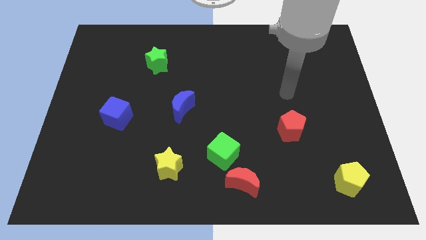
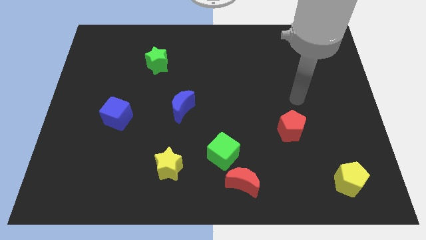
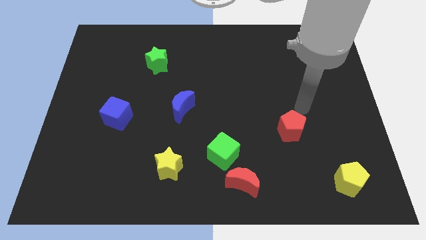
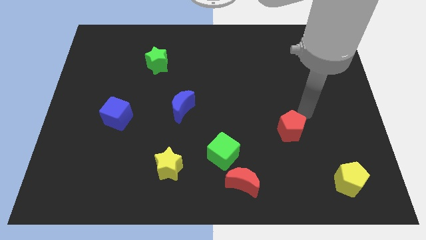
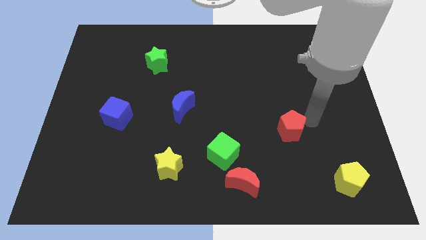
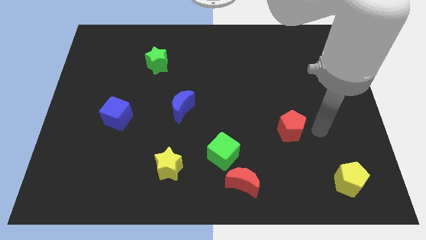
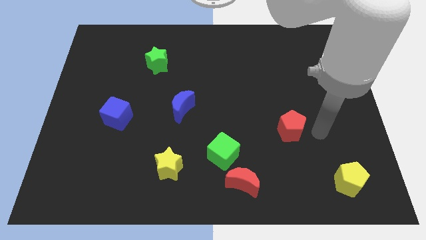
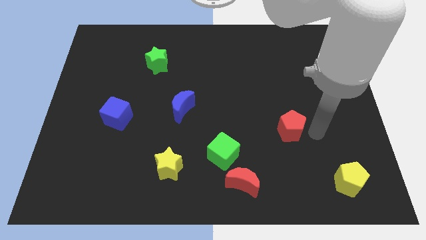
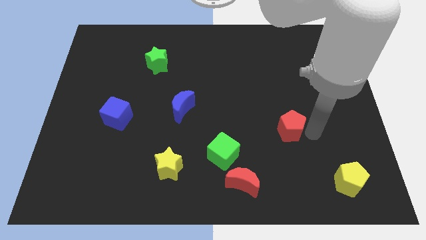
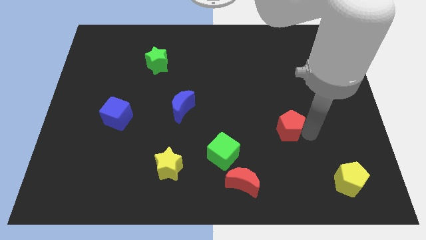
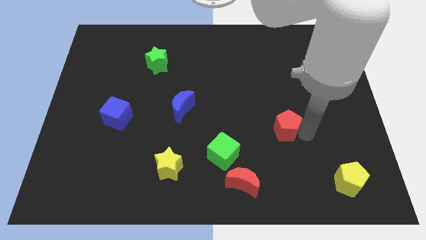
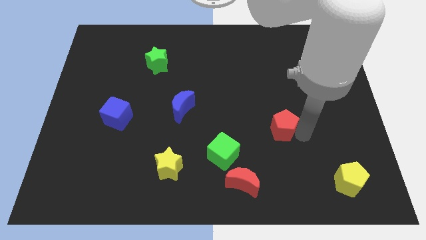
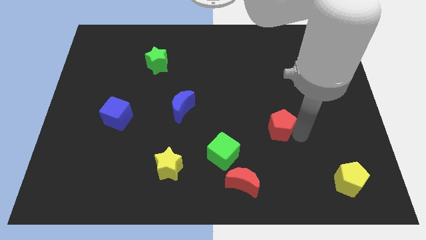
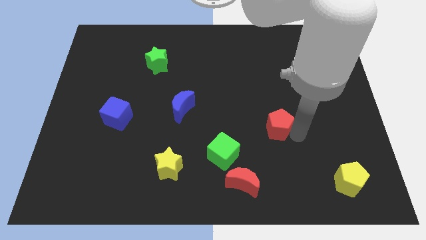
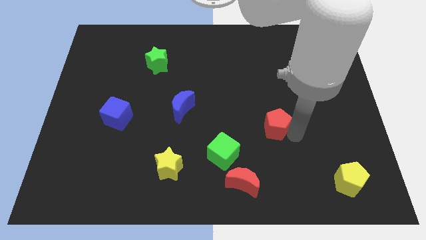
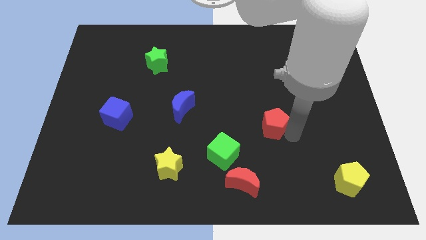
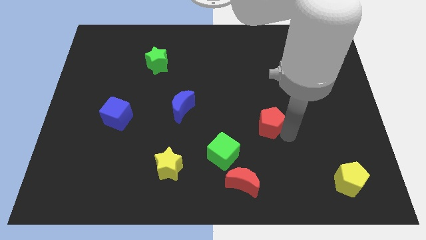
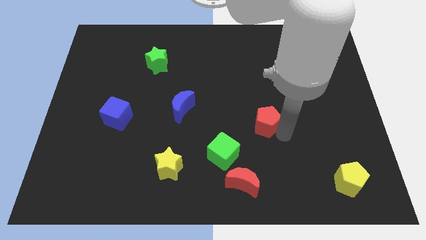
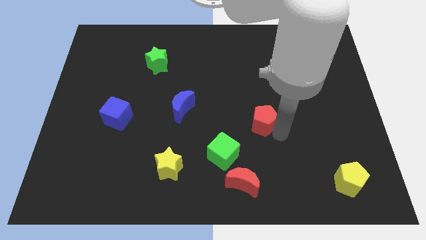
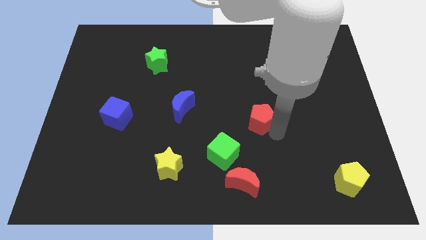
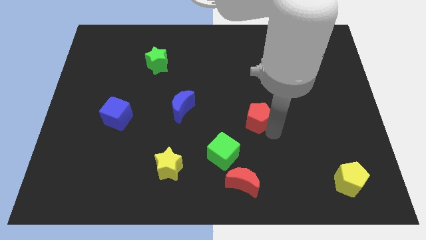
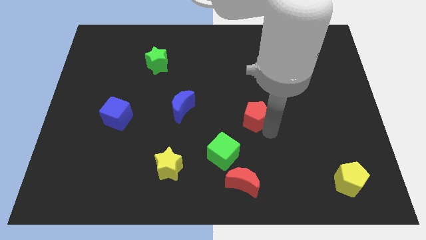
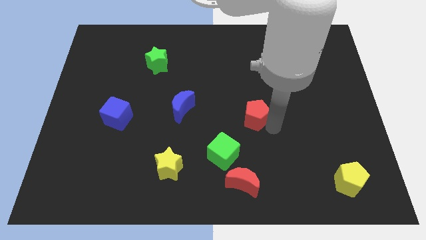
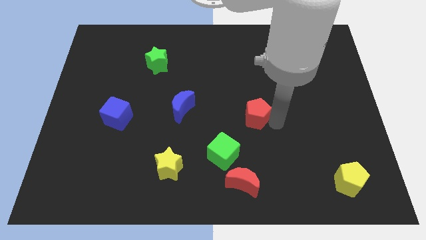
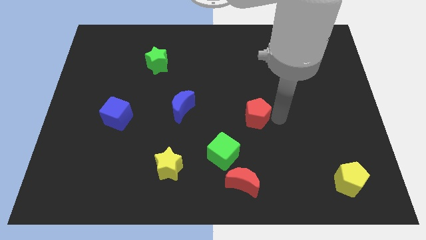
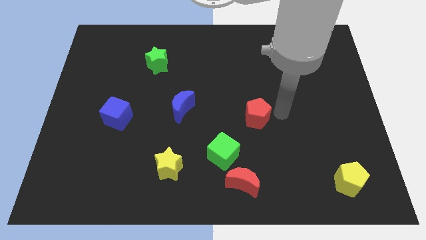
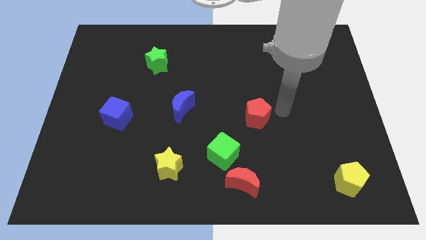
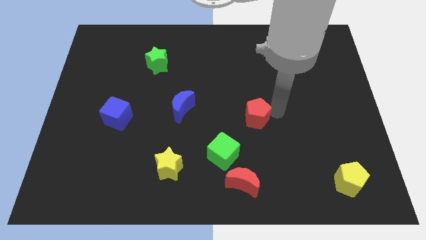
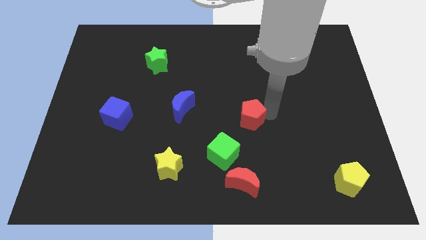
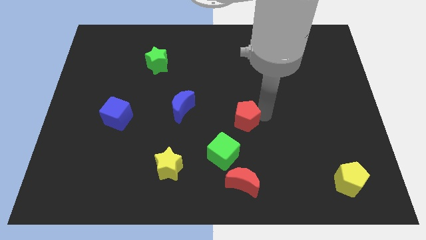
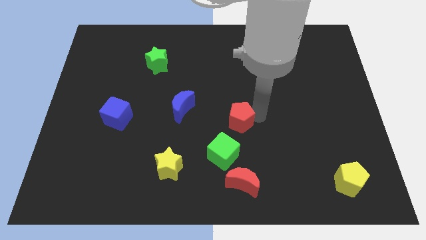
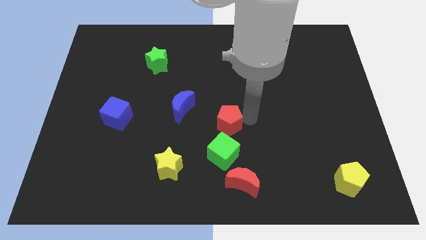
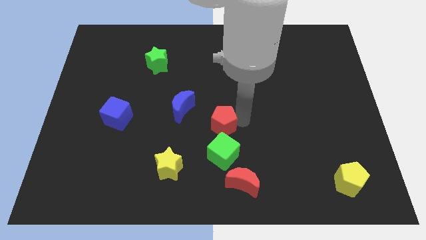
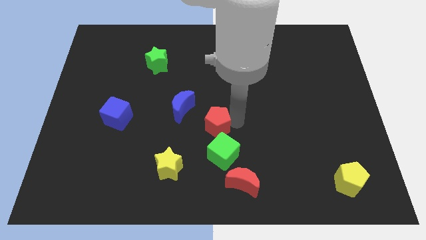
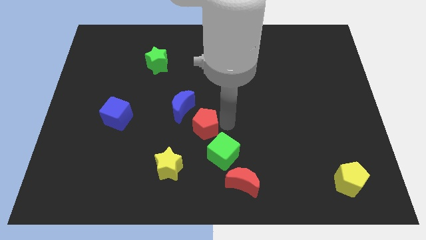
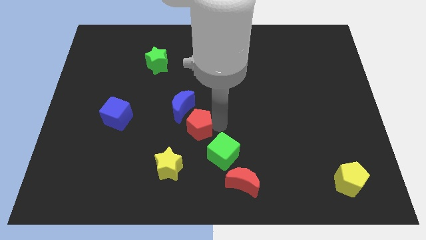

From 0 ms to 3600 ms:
slide the red pentagon left

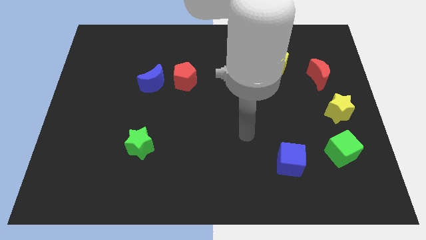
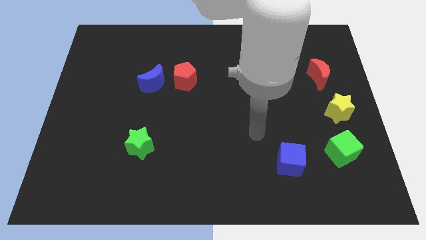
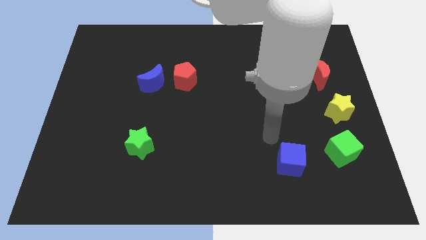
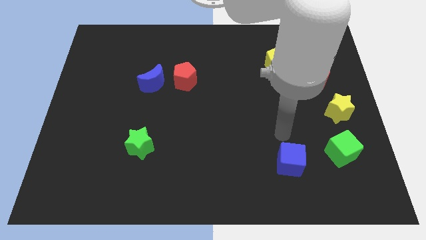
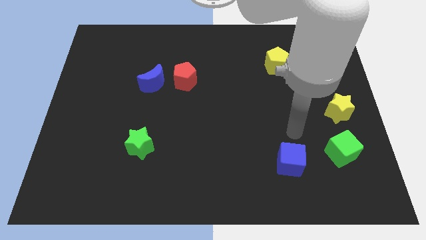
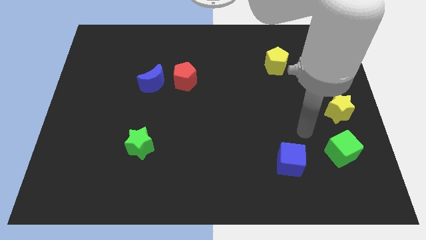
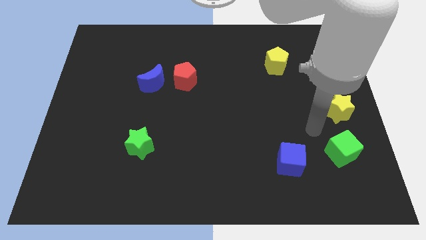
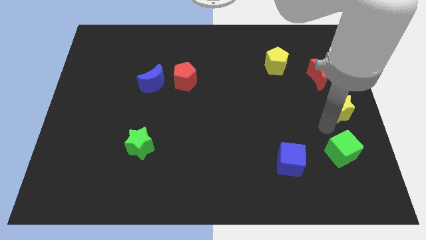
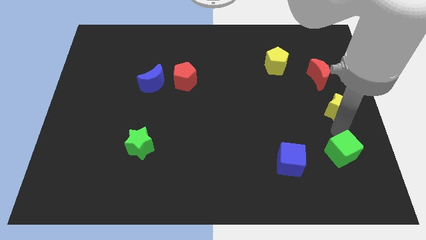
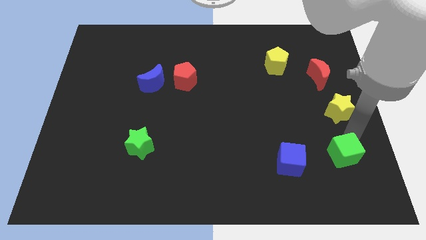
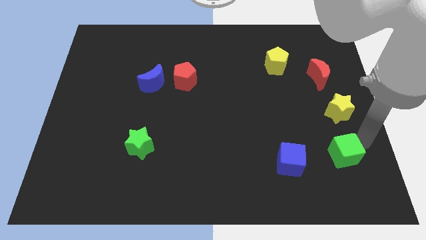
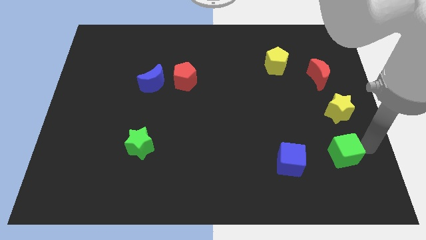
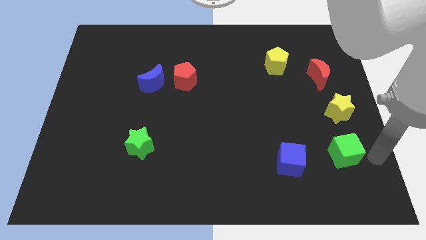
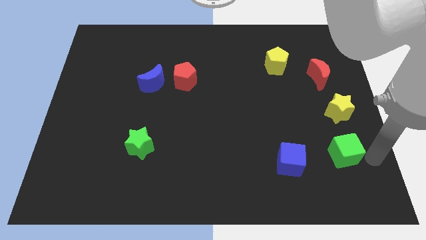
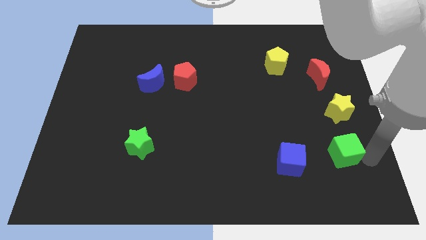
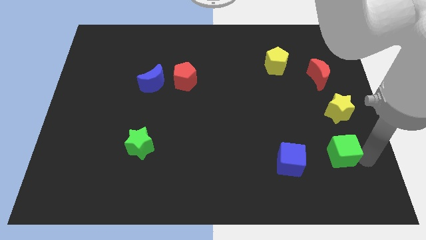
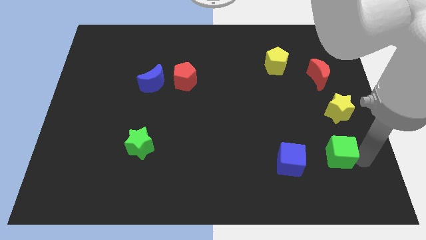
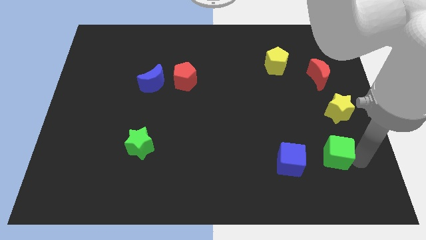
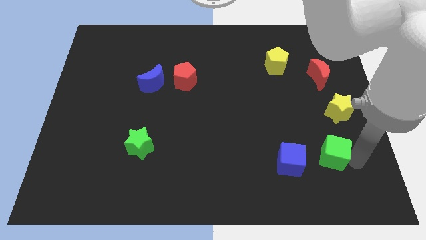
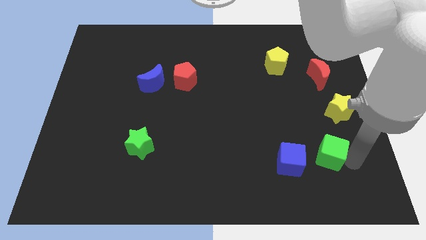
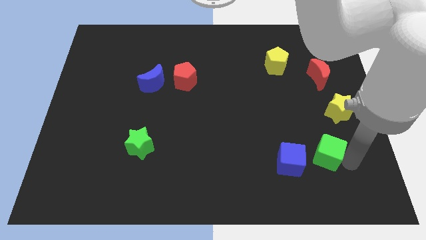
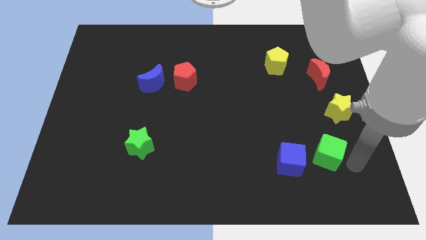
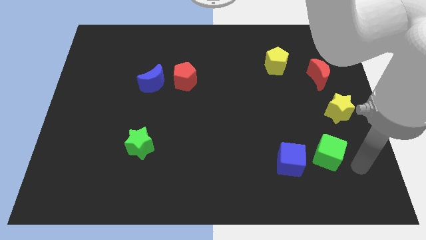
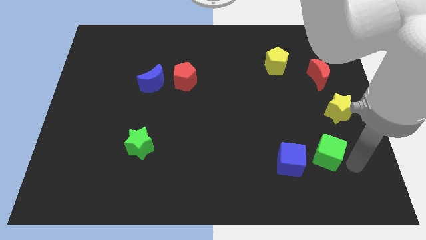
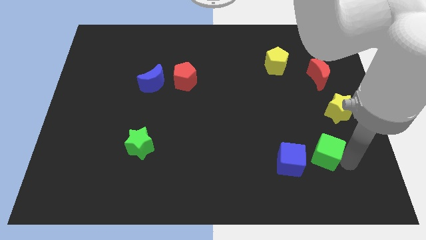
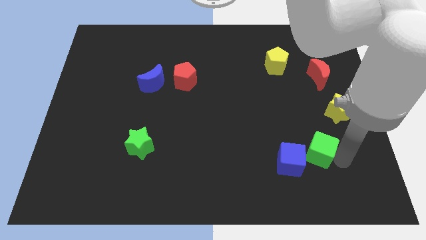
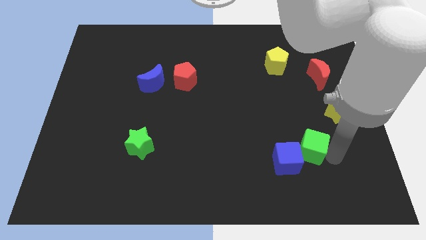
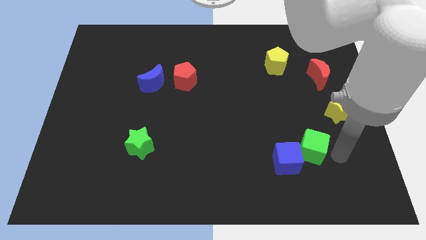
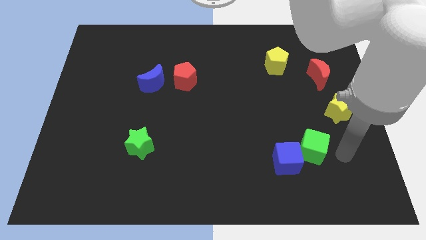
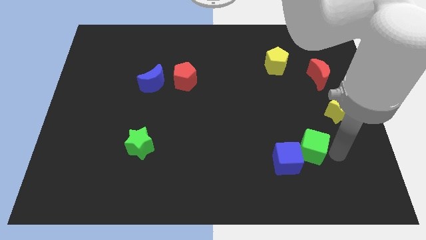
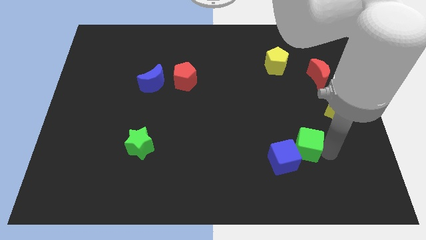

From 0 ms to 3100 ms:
slightly push the green cube to the left

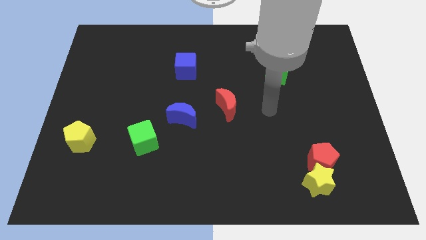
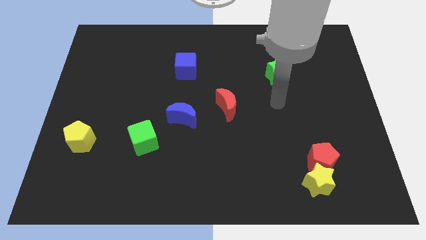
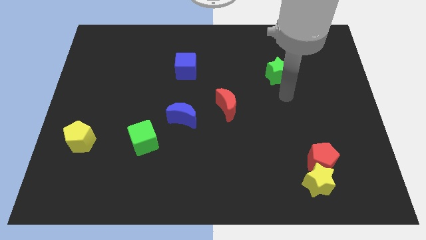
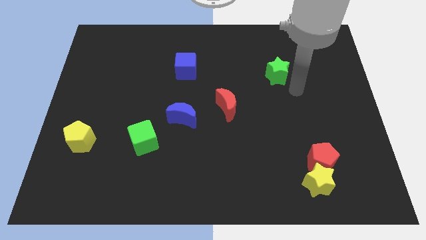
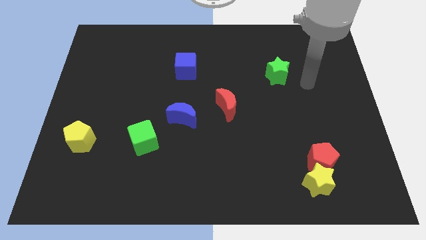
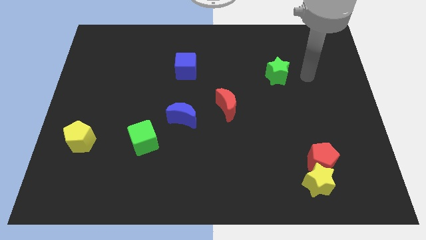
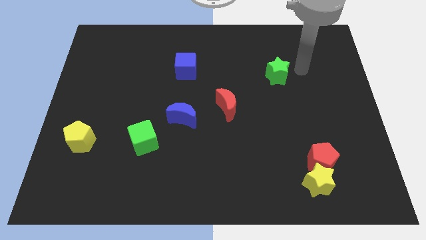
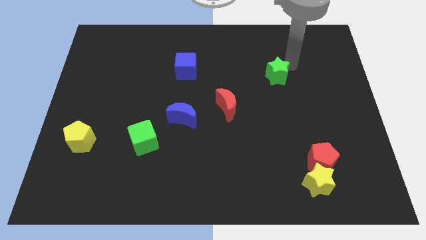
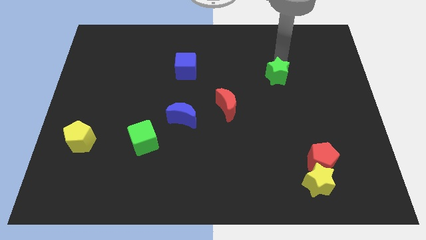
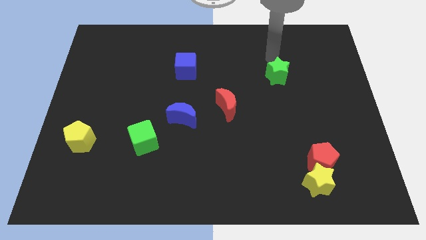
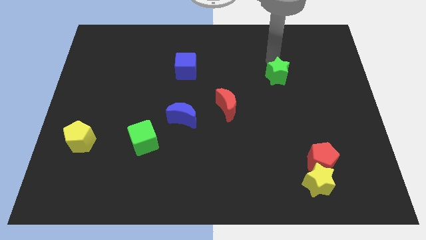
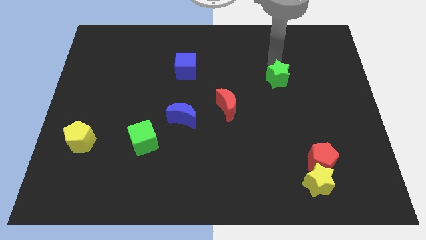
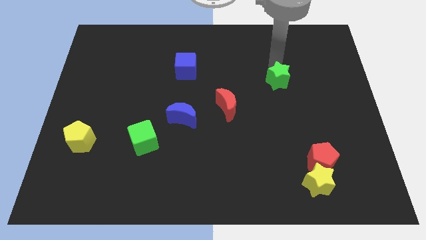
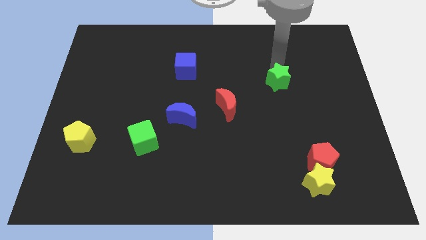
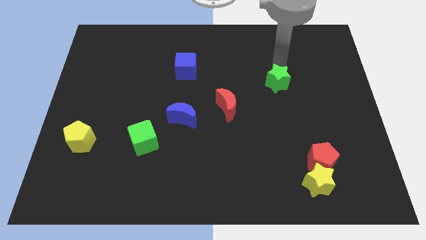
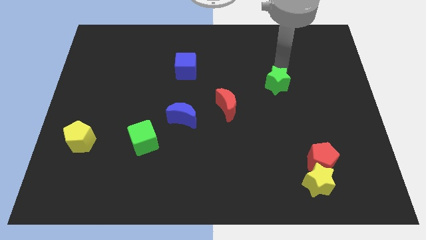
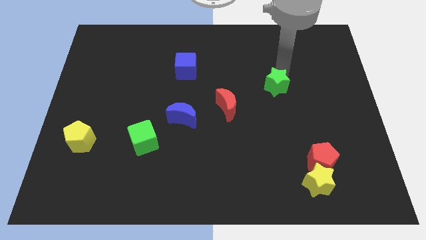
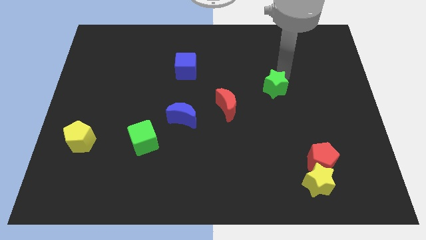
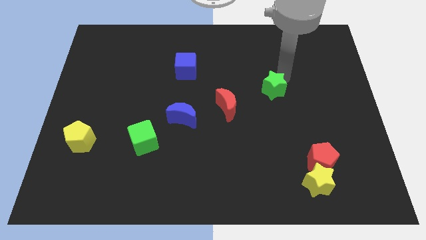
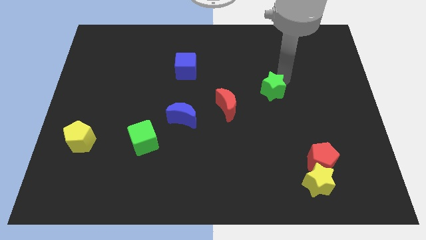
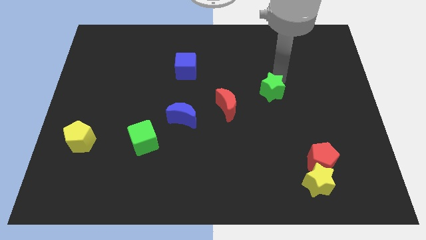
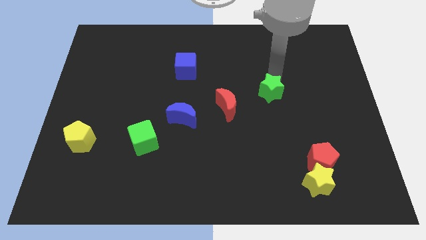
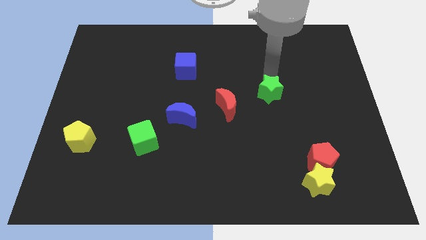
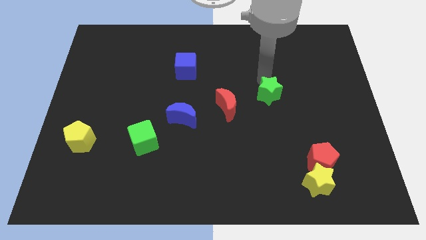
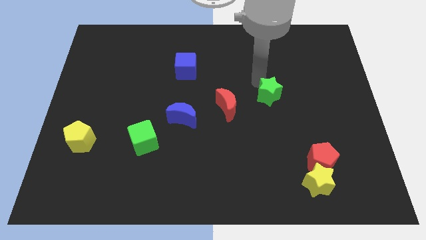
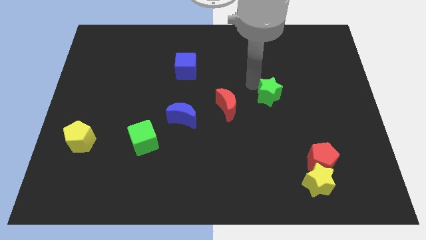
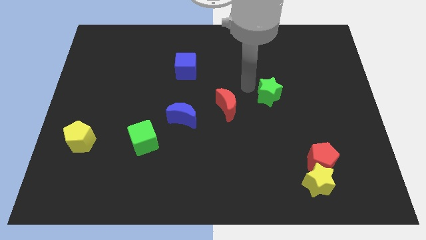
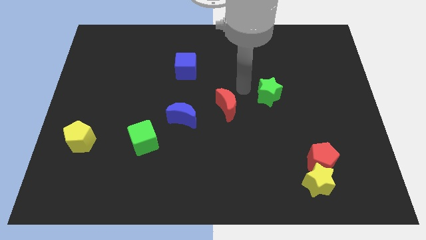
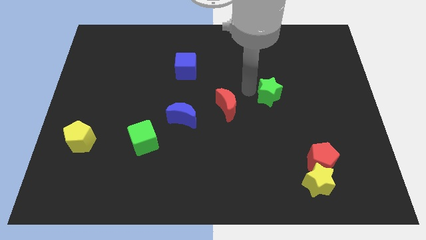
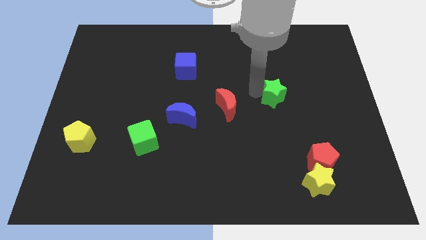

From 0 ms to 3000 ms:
move the green star a little bit downwards
